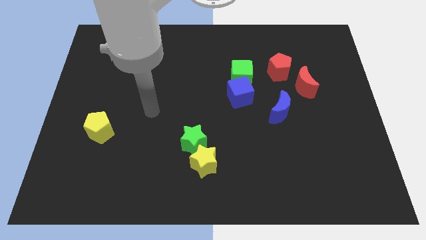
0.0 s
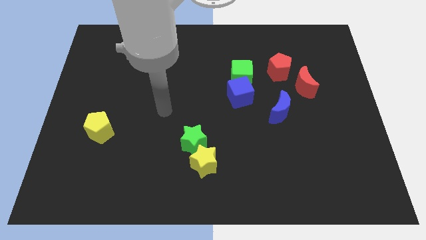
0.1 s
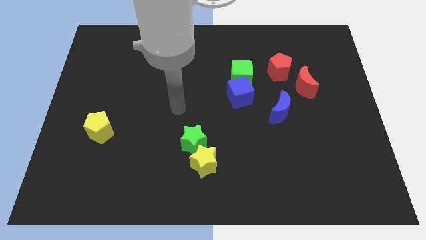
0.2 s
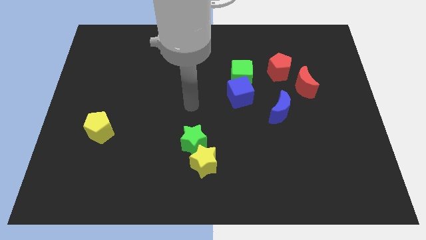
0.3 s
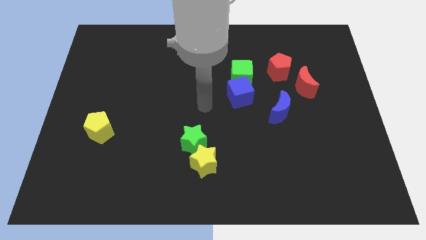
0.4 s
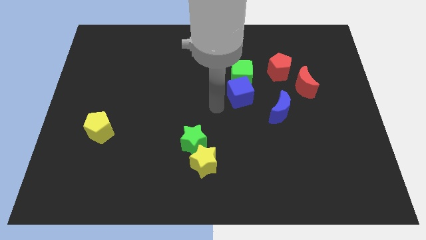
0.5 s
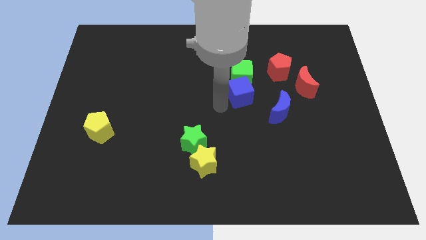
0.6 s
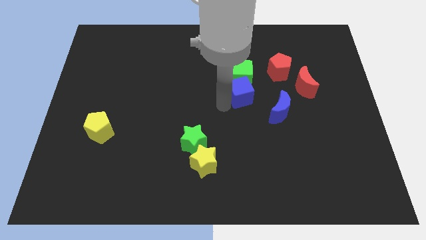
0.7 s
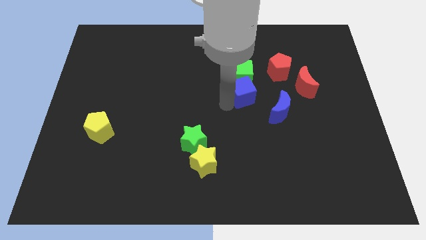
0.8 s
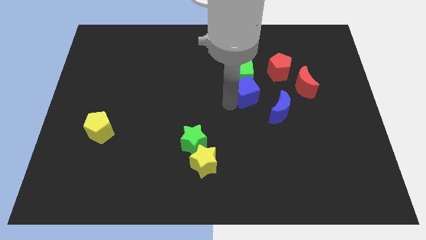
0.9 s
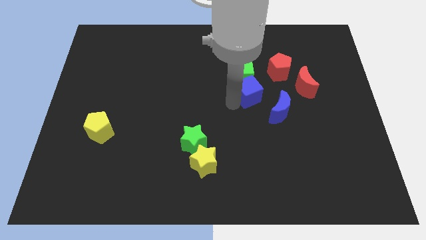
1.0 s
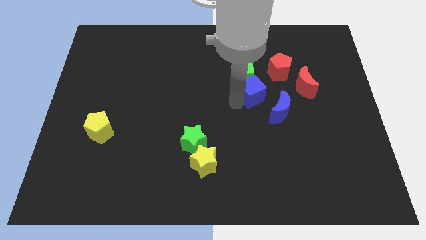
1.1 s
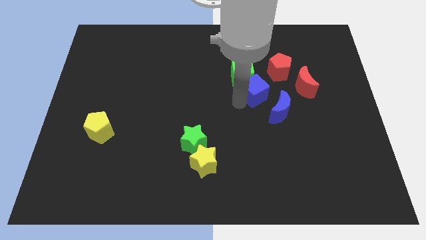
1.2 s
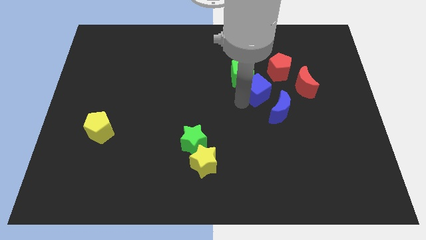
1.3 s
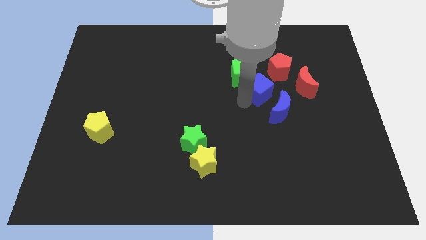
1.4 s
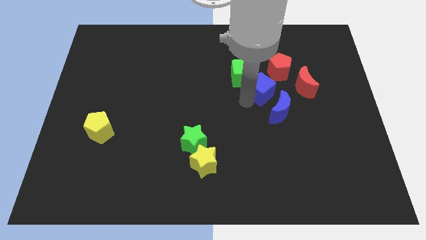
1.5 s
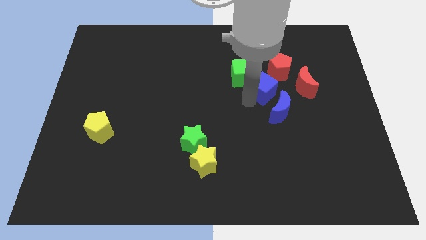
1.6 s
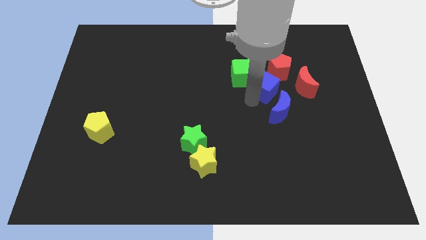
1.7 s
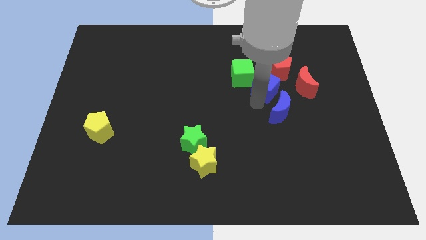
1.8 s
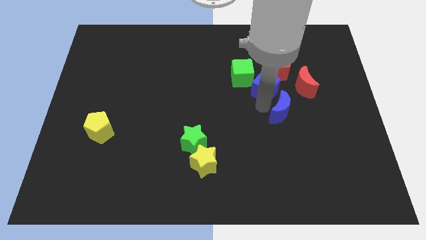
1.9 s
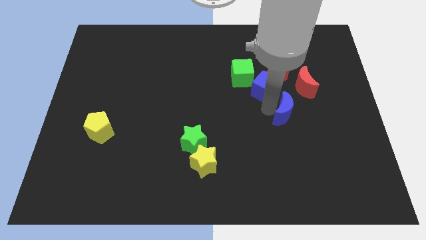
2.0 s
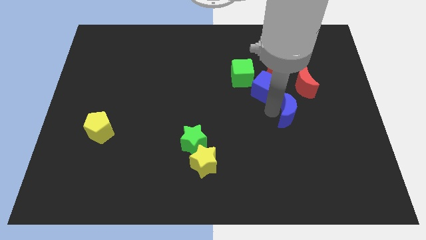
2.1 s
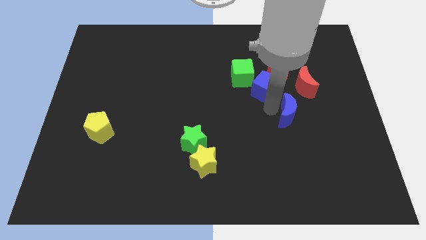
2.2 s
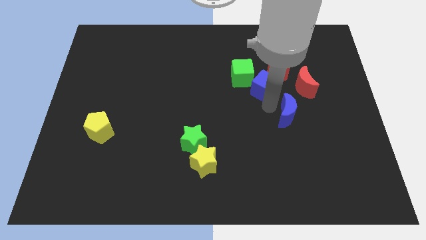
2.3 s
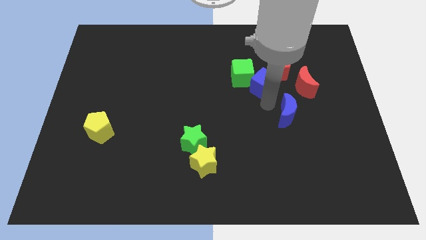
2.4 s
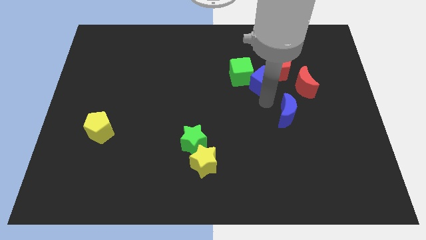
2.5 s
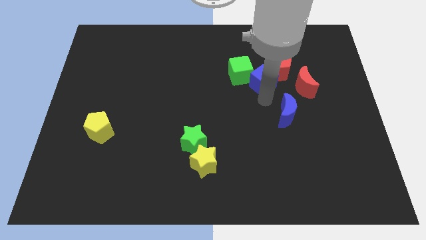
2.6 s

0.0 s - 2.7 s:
slightly move the blue cube upwards and to the right diagonally

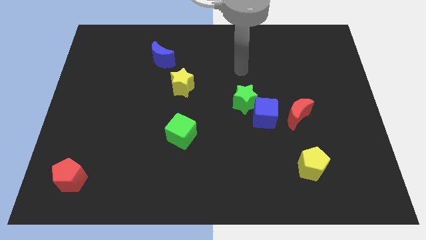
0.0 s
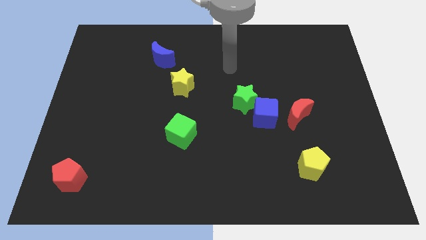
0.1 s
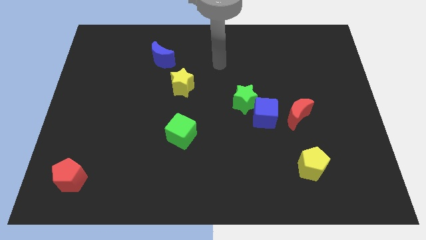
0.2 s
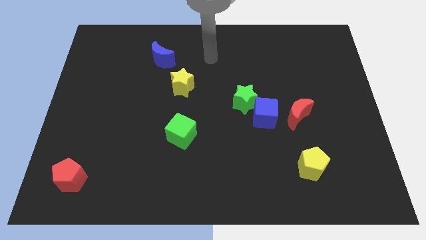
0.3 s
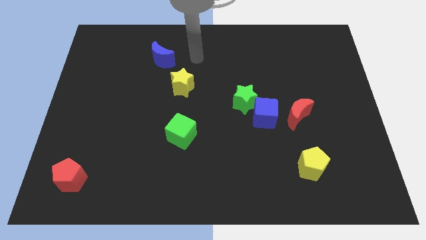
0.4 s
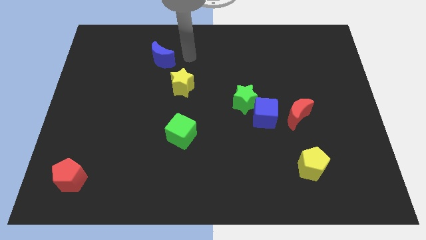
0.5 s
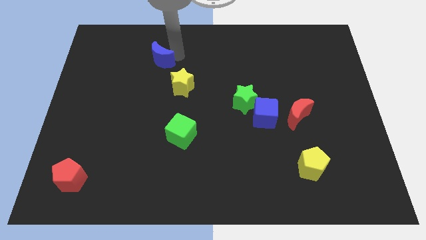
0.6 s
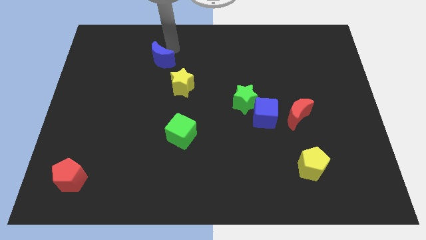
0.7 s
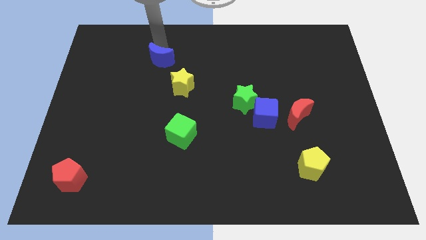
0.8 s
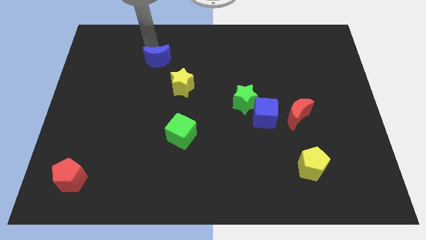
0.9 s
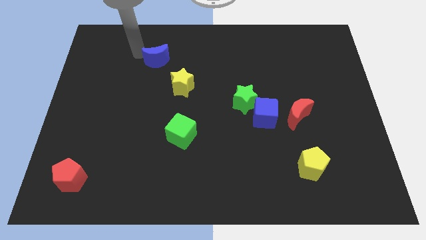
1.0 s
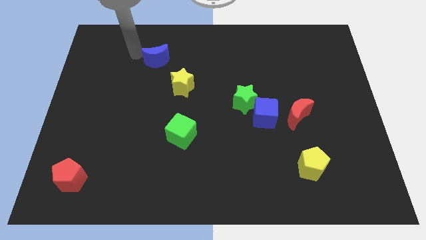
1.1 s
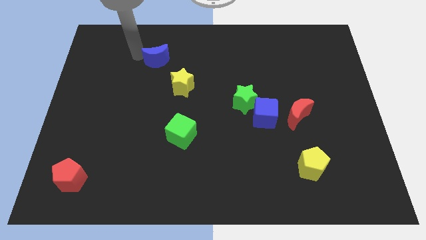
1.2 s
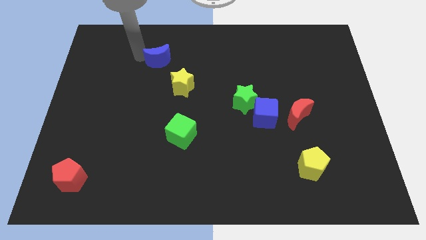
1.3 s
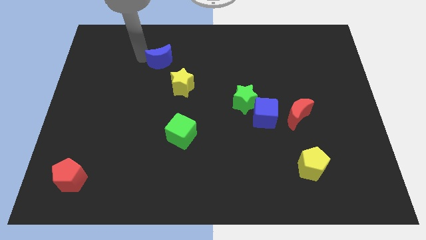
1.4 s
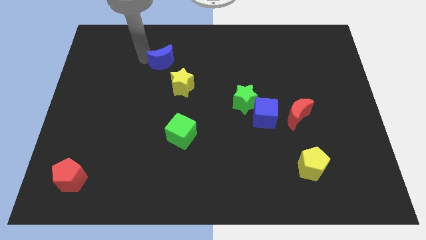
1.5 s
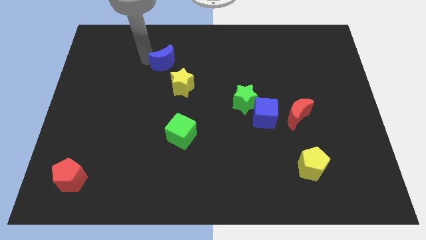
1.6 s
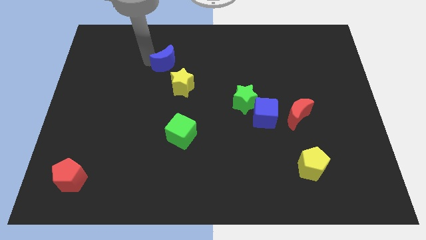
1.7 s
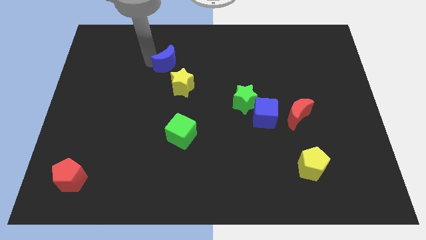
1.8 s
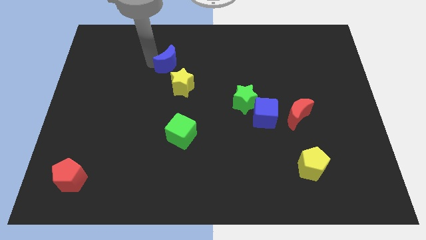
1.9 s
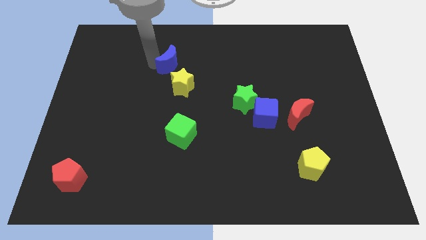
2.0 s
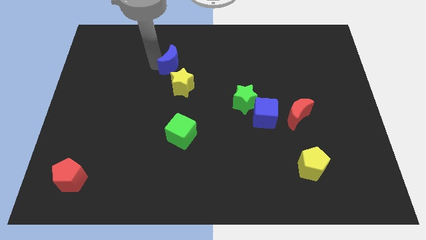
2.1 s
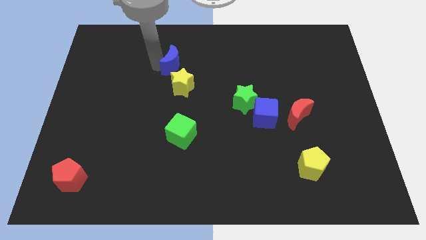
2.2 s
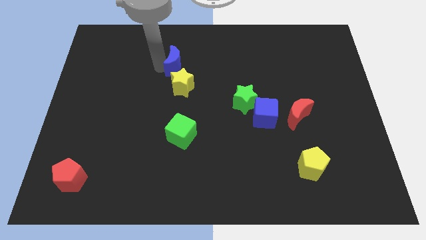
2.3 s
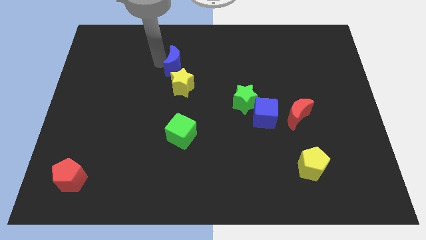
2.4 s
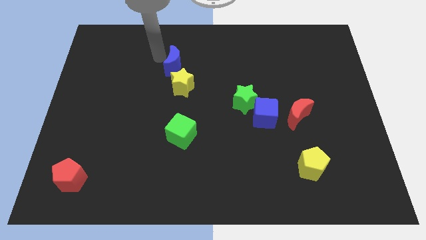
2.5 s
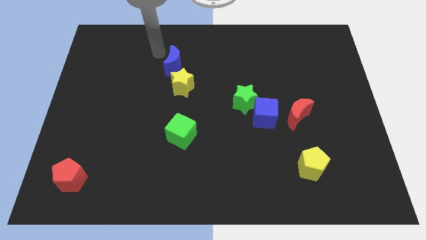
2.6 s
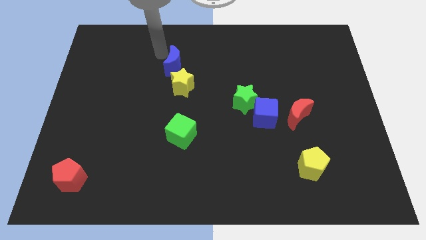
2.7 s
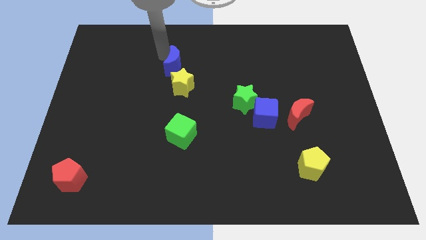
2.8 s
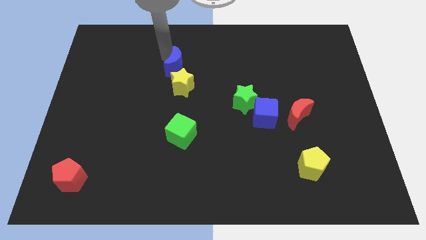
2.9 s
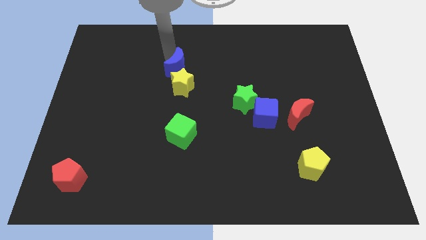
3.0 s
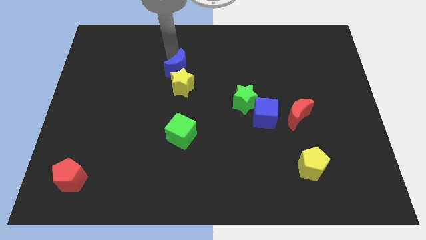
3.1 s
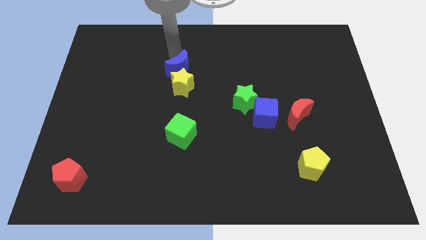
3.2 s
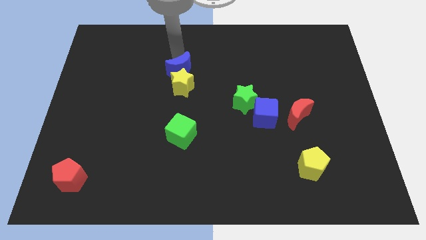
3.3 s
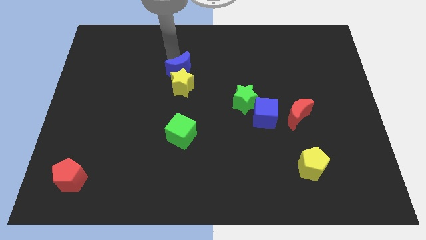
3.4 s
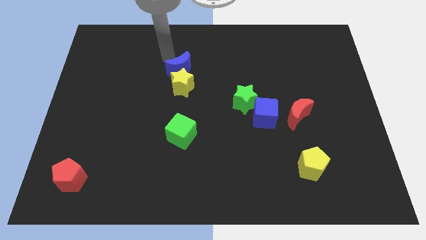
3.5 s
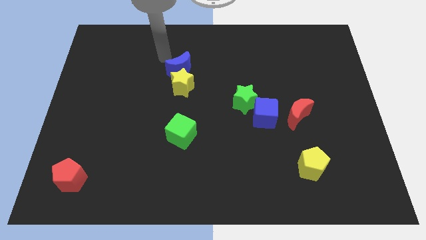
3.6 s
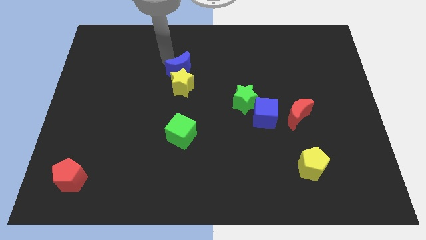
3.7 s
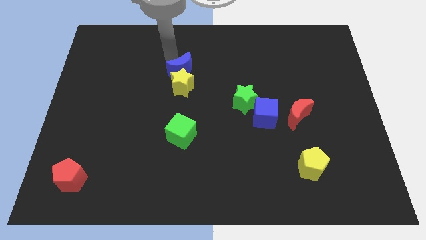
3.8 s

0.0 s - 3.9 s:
move the blue moon a little bit down and to the right

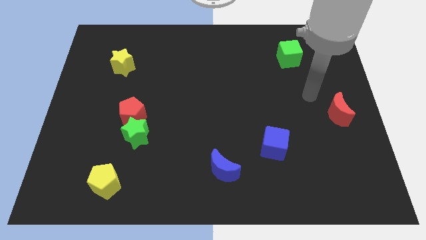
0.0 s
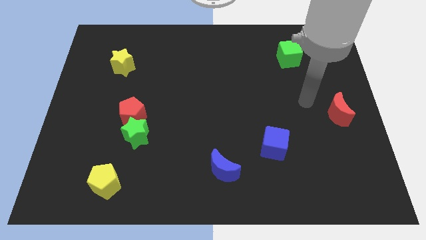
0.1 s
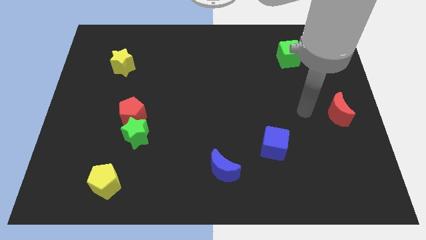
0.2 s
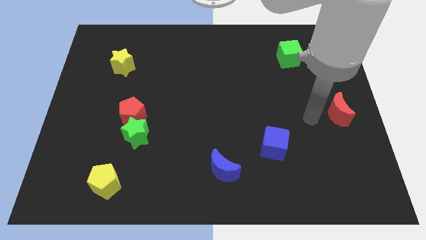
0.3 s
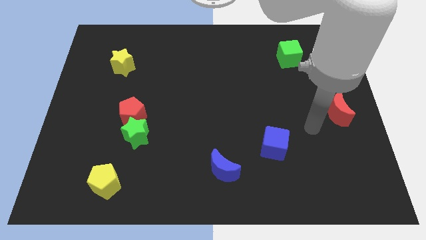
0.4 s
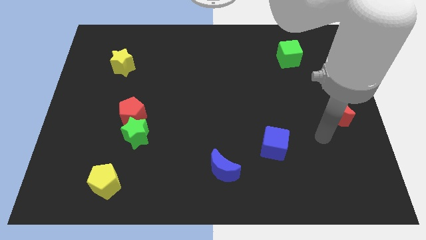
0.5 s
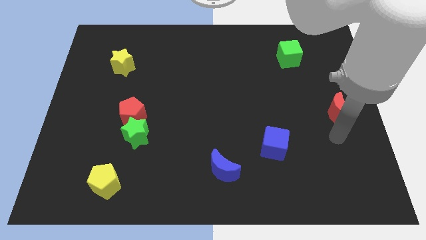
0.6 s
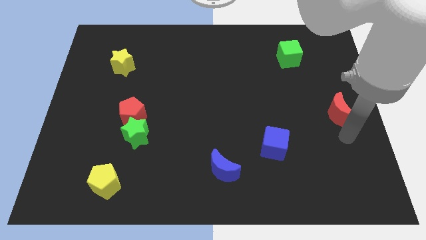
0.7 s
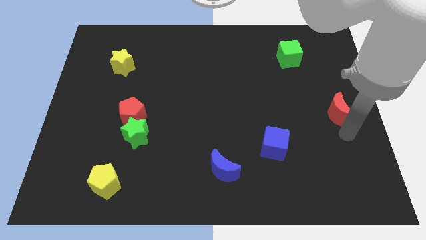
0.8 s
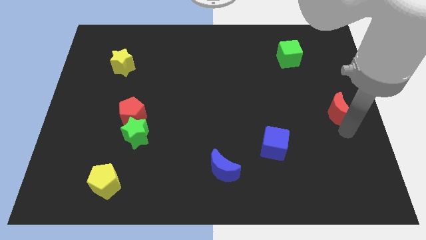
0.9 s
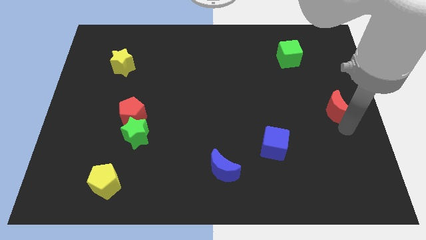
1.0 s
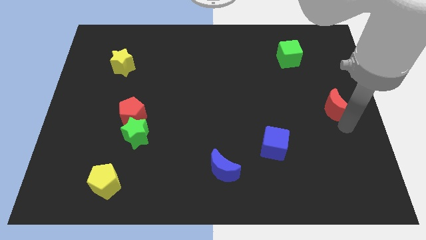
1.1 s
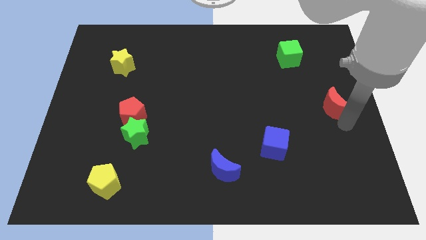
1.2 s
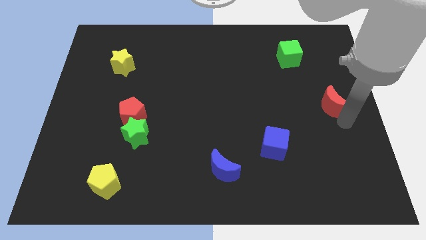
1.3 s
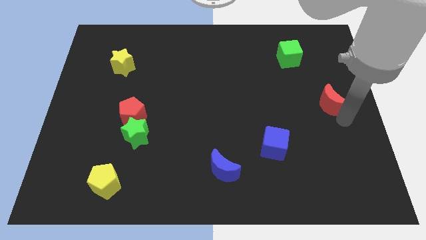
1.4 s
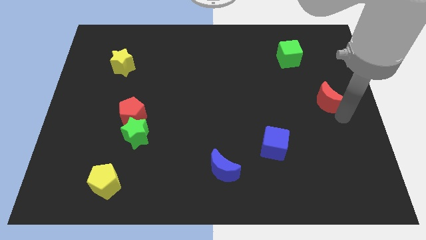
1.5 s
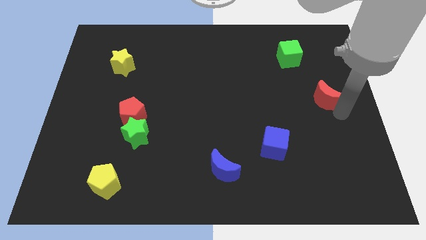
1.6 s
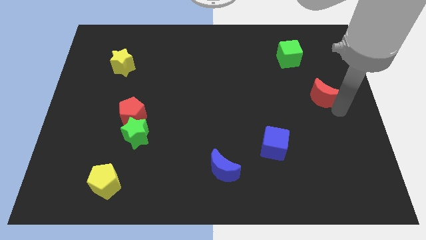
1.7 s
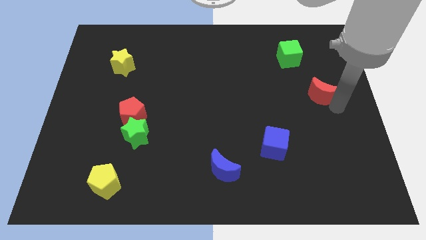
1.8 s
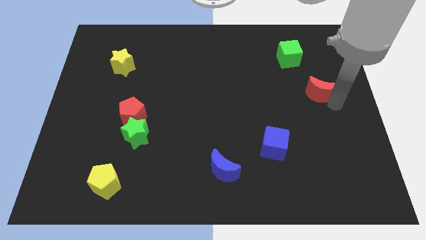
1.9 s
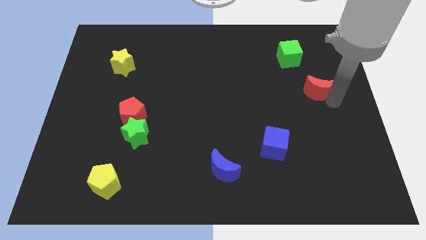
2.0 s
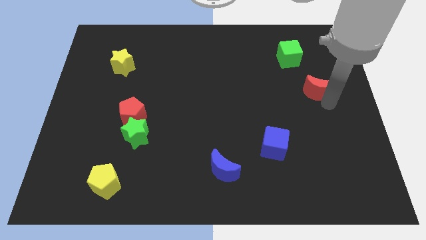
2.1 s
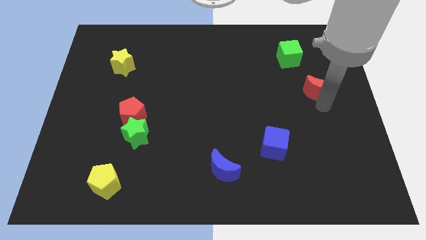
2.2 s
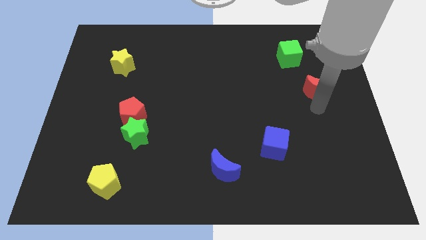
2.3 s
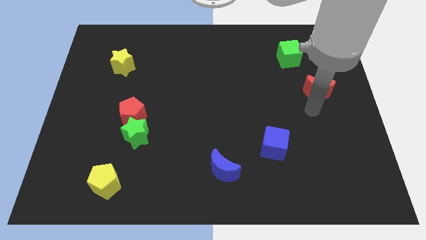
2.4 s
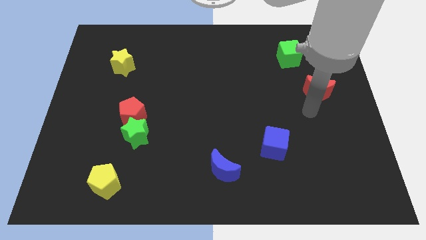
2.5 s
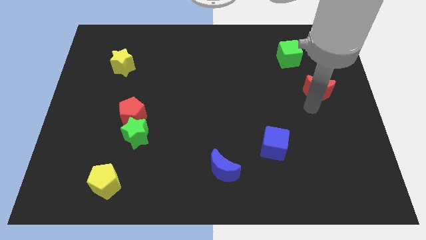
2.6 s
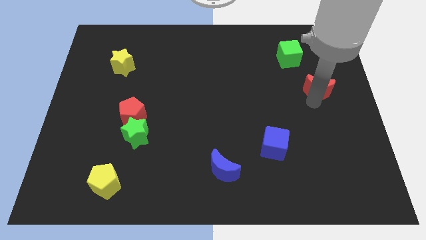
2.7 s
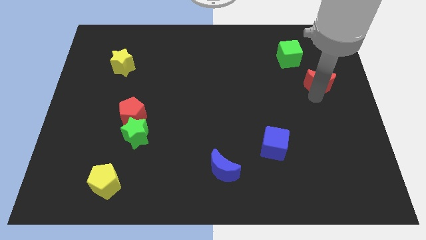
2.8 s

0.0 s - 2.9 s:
slightly slide the red moon upwards
